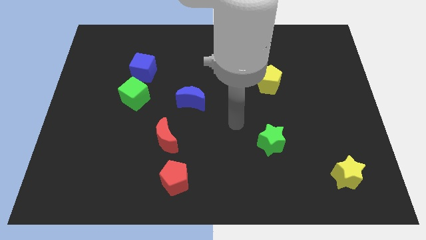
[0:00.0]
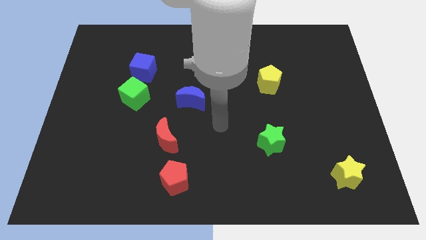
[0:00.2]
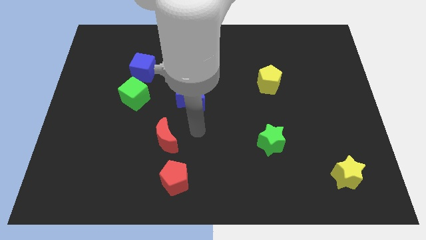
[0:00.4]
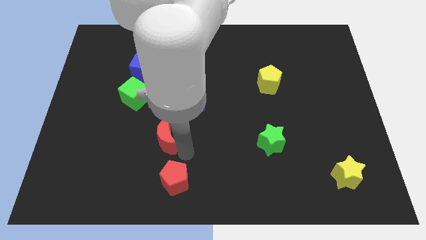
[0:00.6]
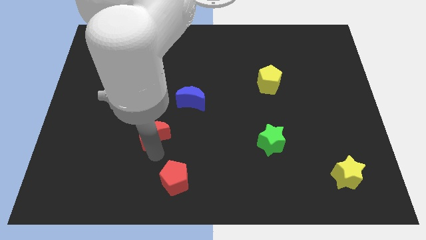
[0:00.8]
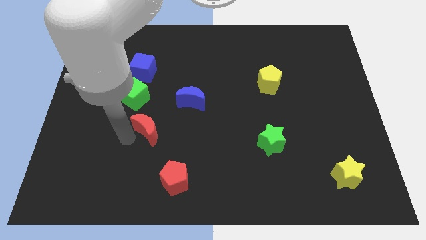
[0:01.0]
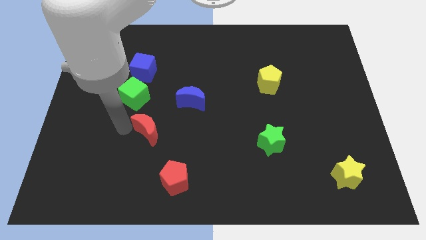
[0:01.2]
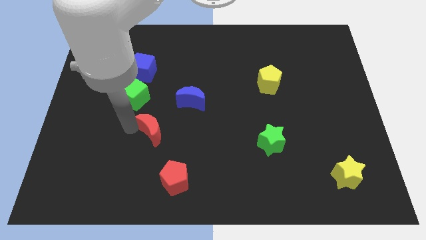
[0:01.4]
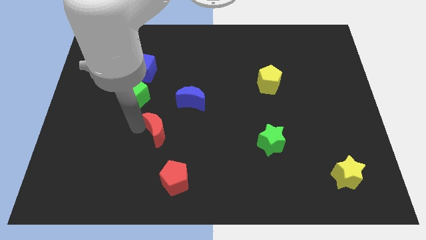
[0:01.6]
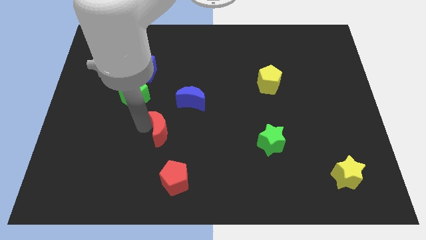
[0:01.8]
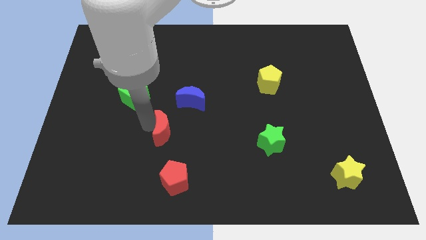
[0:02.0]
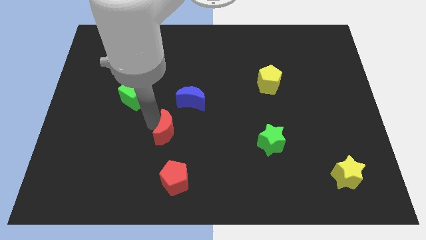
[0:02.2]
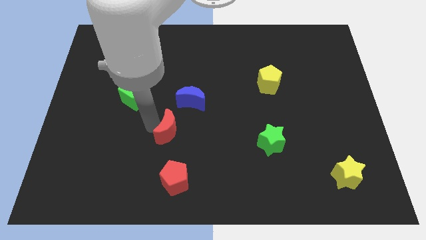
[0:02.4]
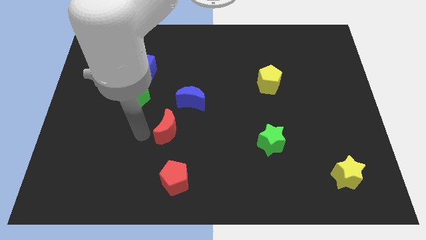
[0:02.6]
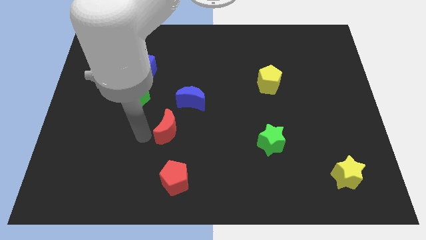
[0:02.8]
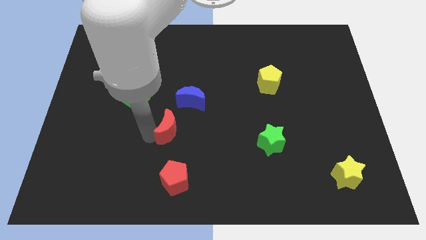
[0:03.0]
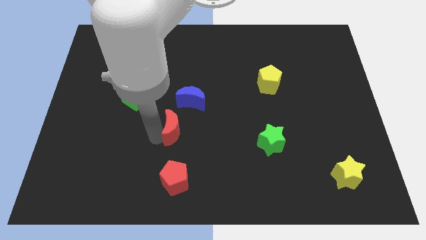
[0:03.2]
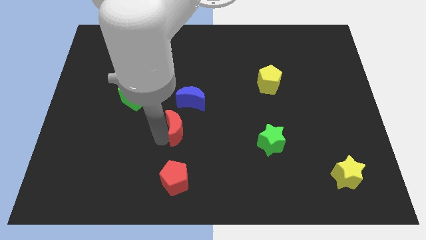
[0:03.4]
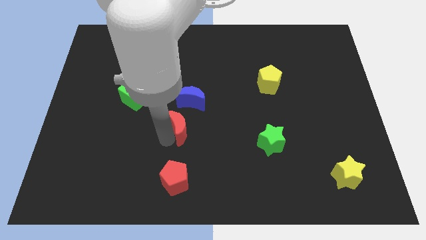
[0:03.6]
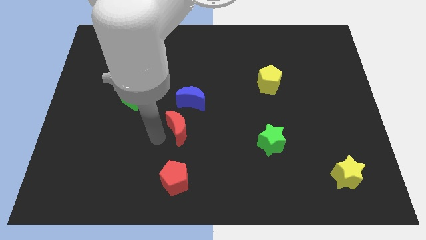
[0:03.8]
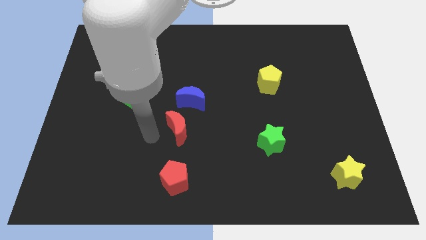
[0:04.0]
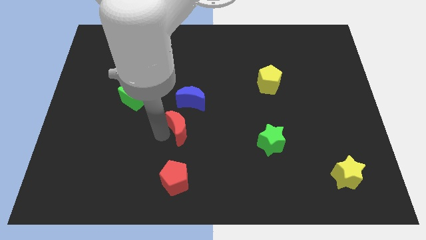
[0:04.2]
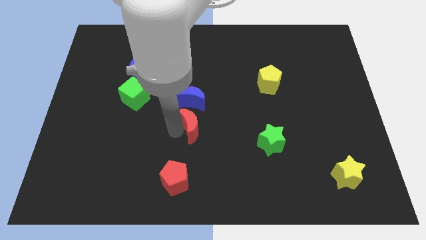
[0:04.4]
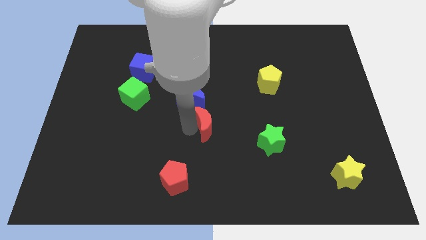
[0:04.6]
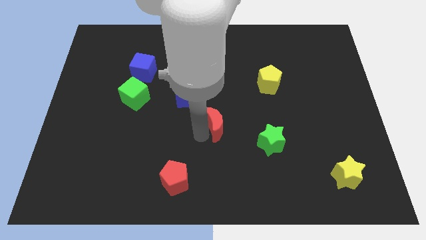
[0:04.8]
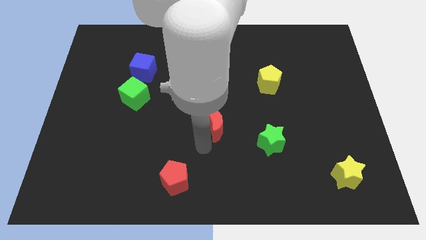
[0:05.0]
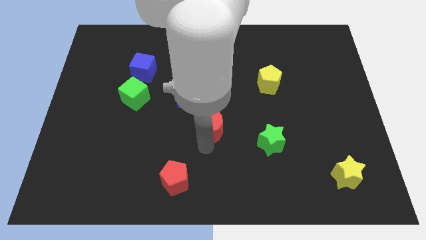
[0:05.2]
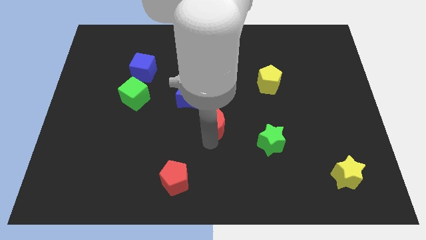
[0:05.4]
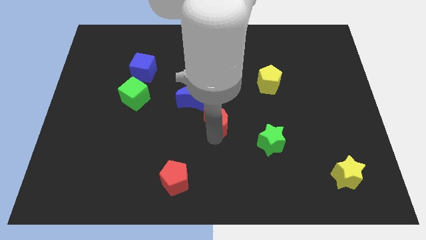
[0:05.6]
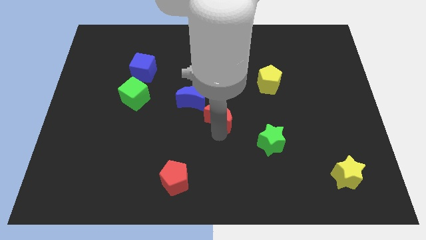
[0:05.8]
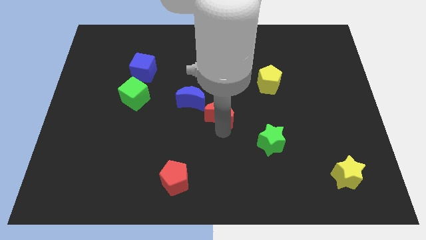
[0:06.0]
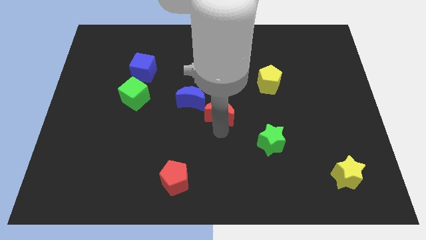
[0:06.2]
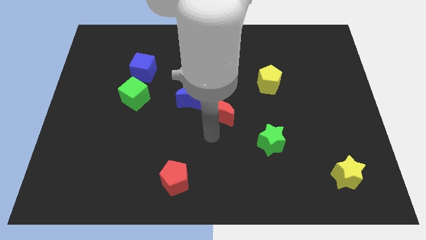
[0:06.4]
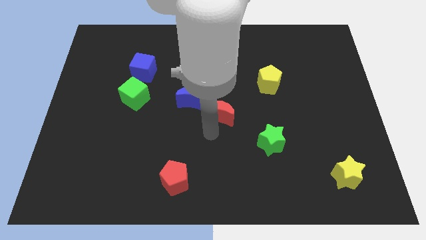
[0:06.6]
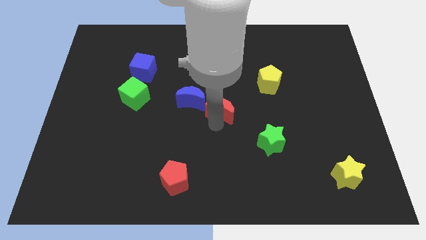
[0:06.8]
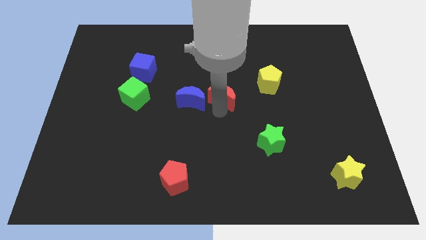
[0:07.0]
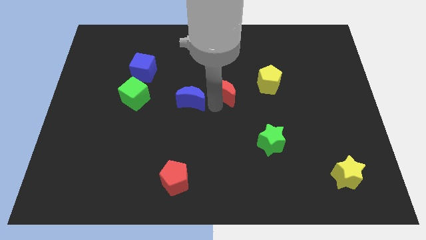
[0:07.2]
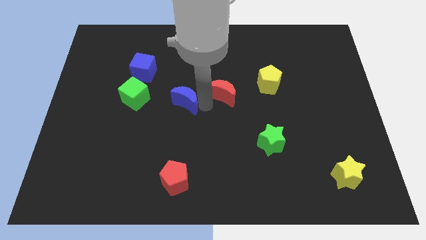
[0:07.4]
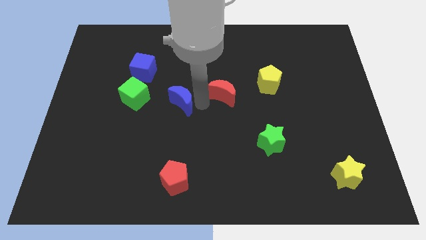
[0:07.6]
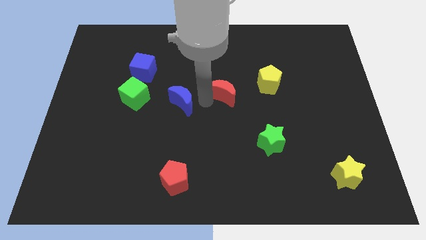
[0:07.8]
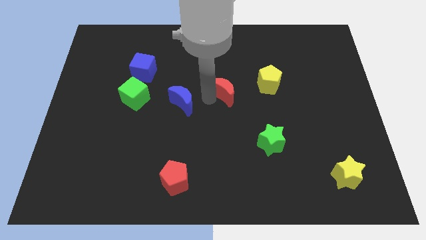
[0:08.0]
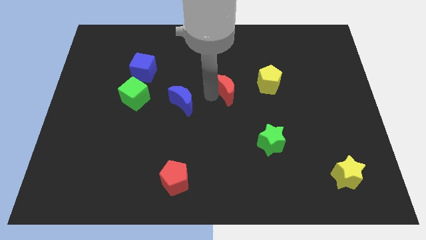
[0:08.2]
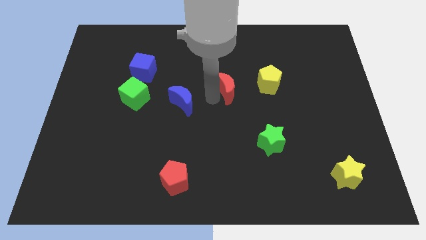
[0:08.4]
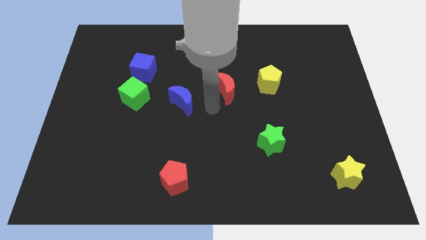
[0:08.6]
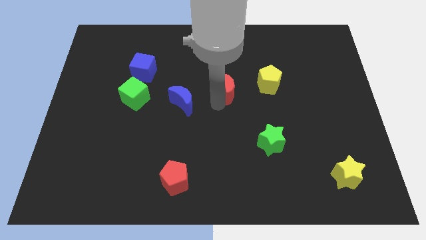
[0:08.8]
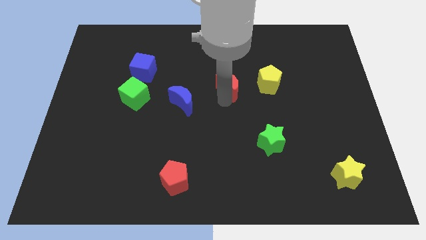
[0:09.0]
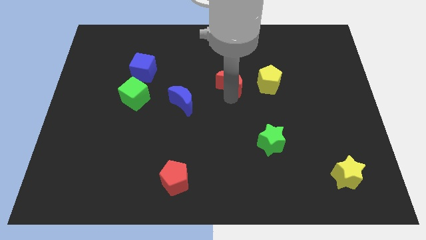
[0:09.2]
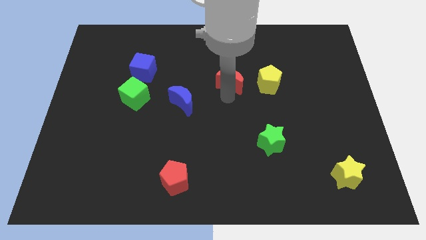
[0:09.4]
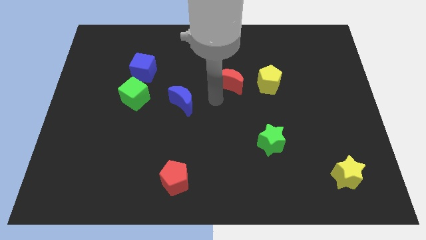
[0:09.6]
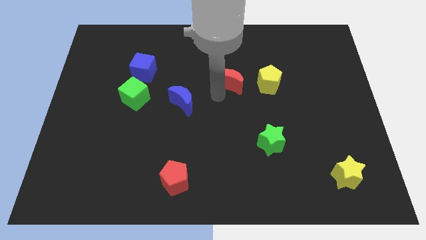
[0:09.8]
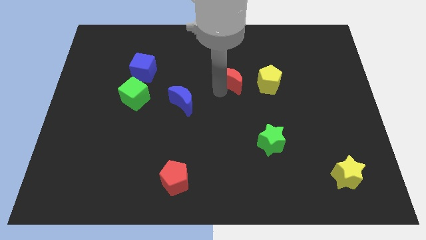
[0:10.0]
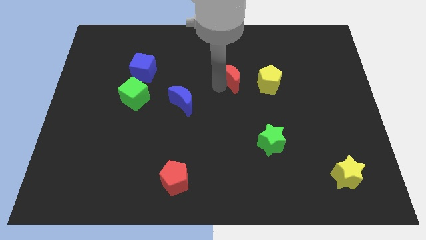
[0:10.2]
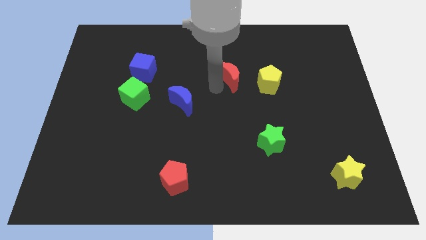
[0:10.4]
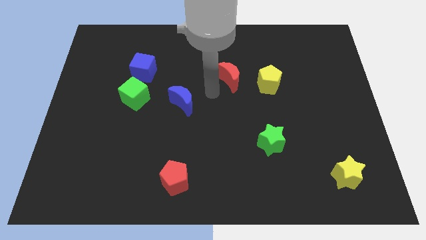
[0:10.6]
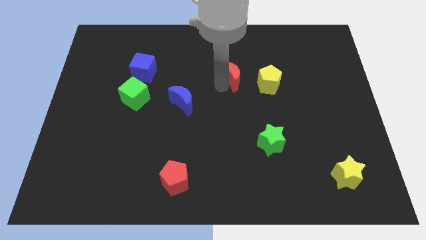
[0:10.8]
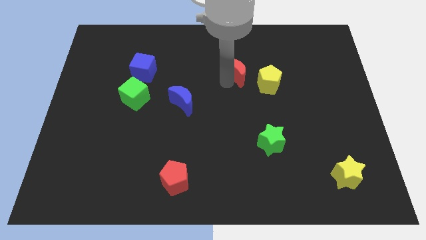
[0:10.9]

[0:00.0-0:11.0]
put the red moon to the top left of the yellow pentagon

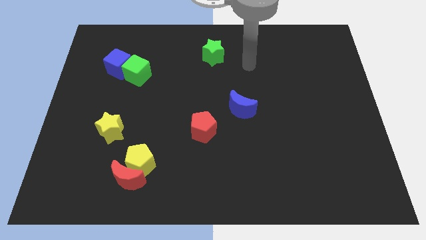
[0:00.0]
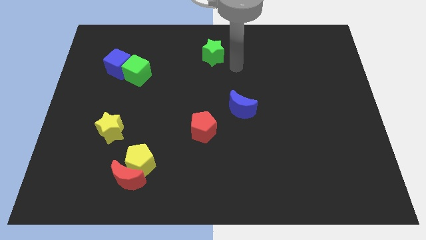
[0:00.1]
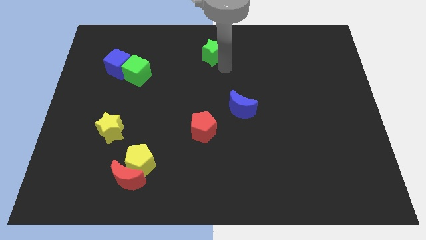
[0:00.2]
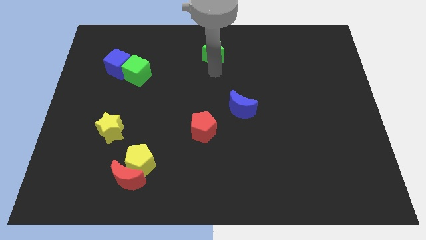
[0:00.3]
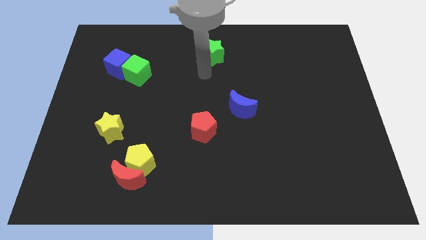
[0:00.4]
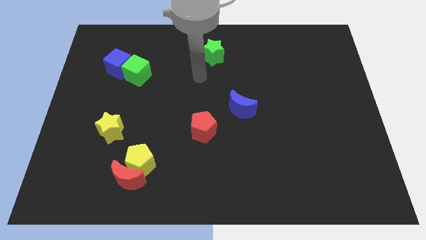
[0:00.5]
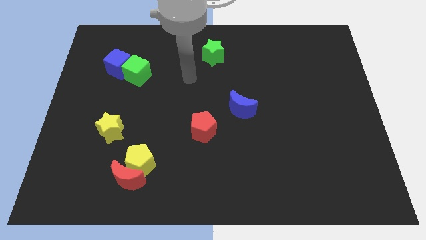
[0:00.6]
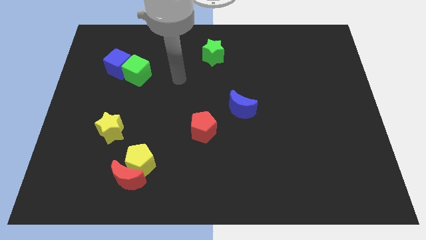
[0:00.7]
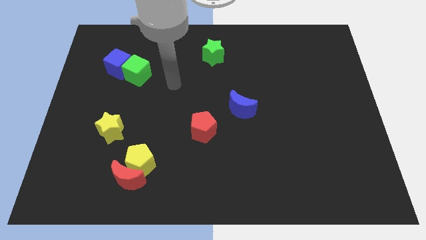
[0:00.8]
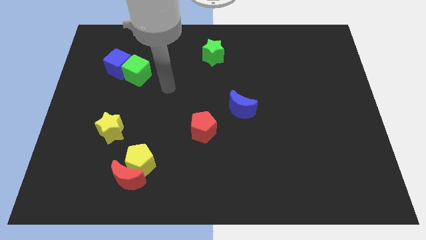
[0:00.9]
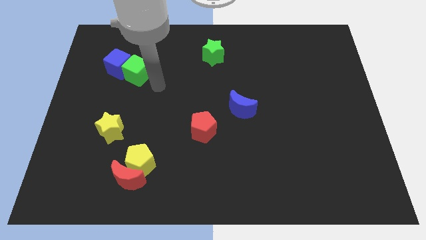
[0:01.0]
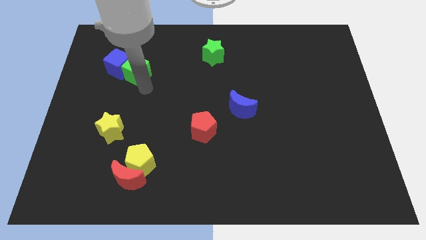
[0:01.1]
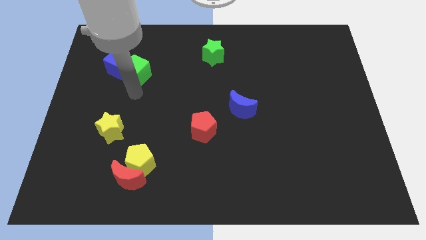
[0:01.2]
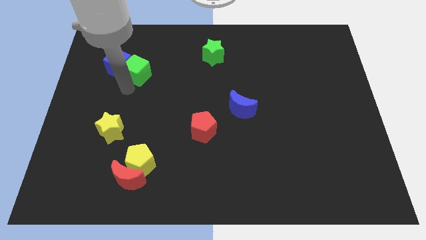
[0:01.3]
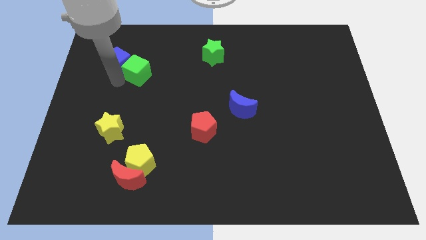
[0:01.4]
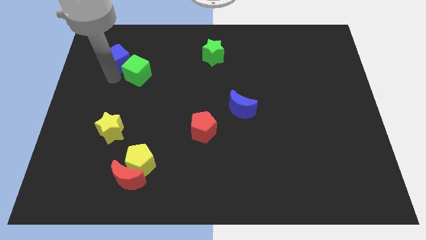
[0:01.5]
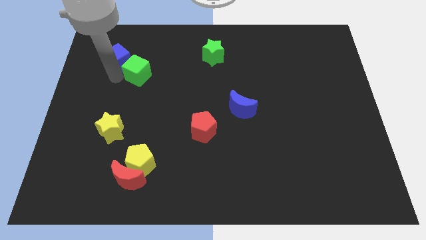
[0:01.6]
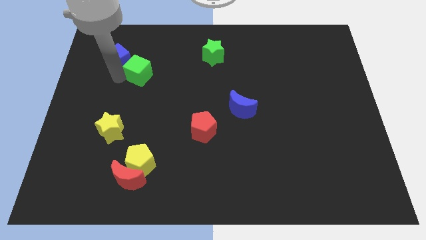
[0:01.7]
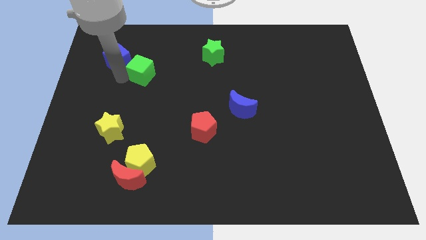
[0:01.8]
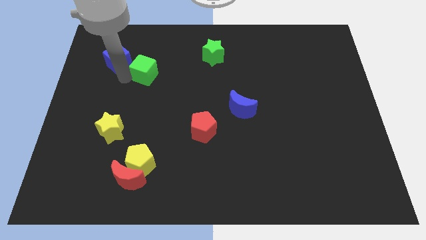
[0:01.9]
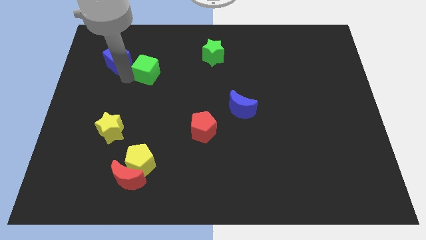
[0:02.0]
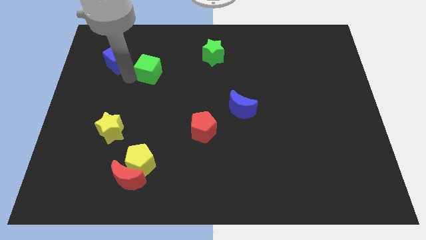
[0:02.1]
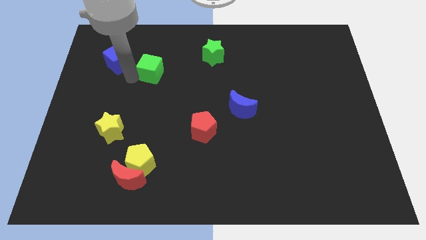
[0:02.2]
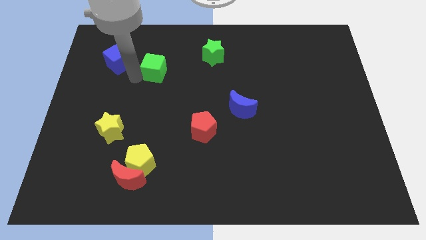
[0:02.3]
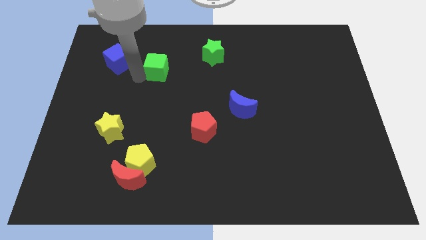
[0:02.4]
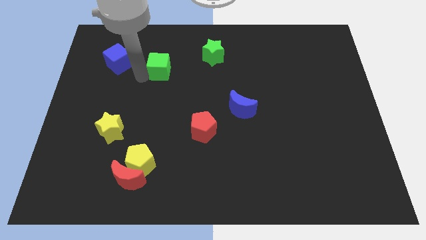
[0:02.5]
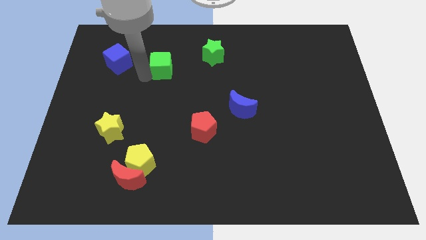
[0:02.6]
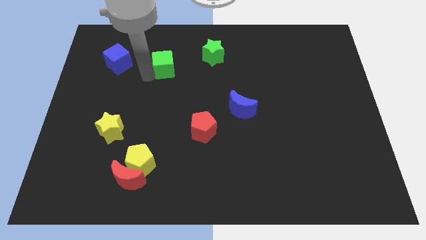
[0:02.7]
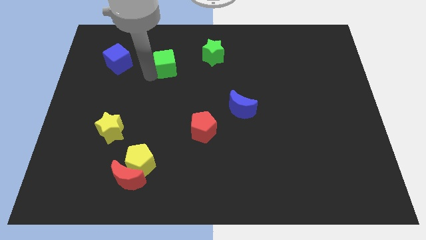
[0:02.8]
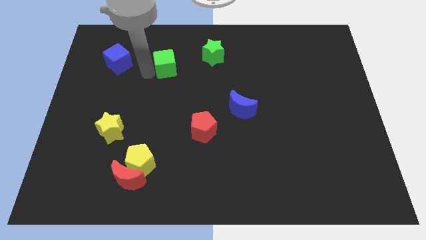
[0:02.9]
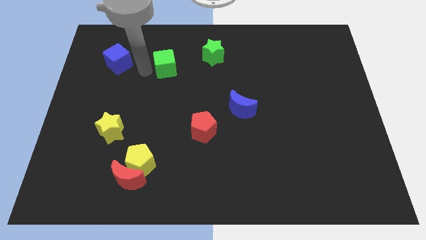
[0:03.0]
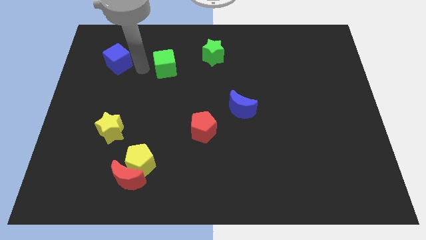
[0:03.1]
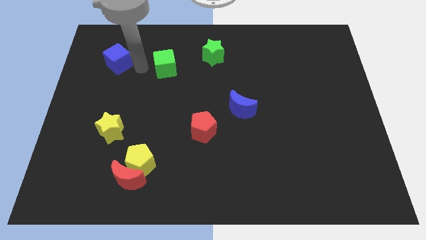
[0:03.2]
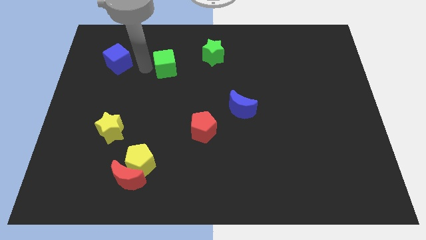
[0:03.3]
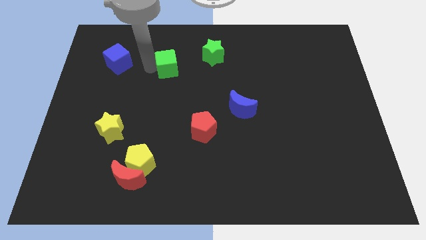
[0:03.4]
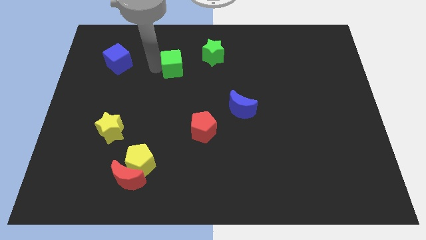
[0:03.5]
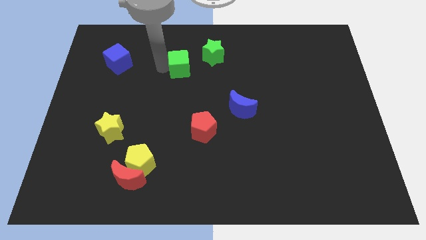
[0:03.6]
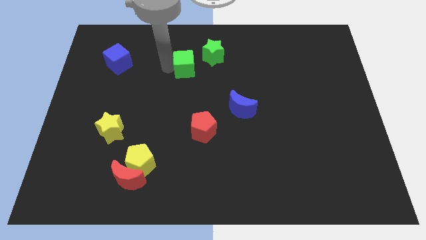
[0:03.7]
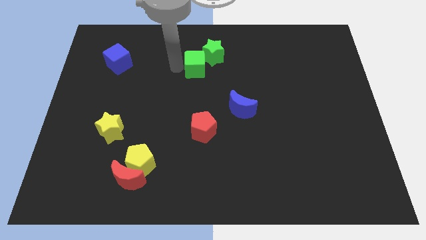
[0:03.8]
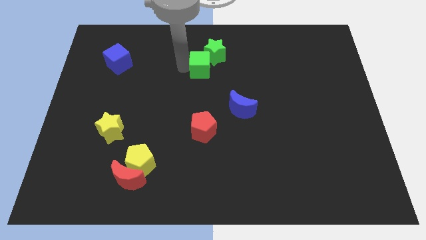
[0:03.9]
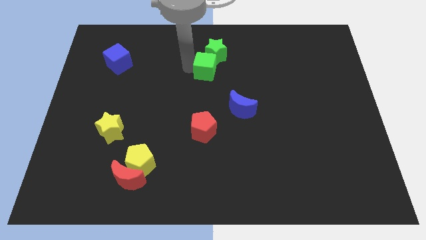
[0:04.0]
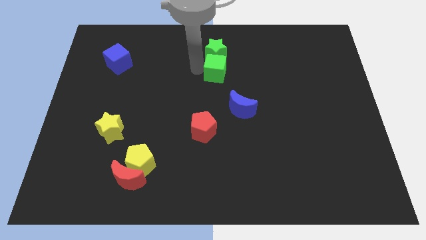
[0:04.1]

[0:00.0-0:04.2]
slide the green cube to the bottom right of the green star
